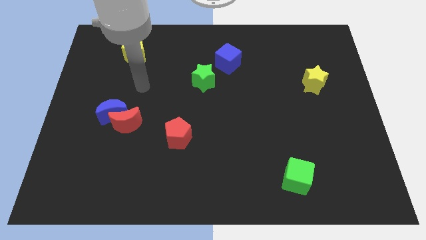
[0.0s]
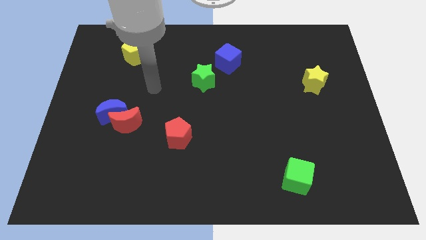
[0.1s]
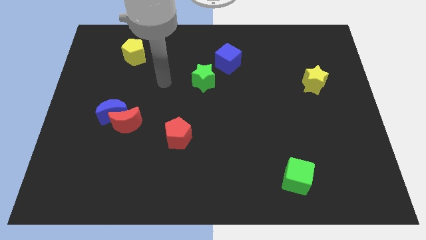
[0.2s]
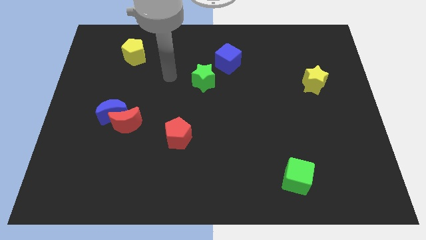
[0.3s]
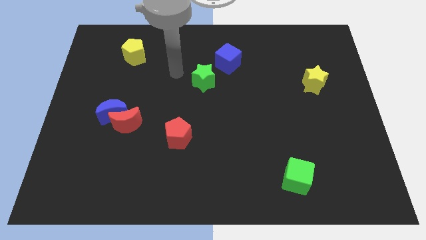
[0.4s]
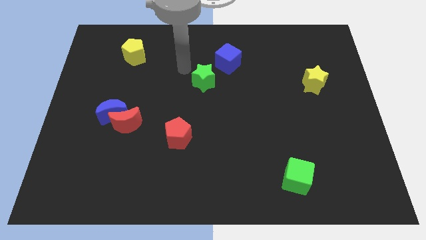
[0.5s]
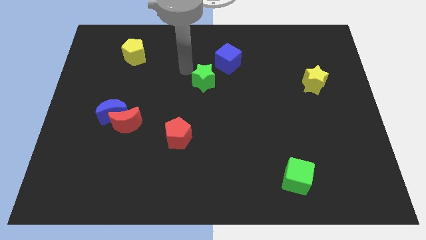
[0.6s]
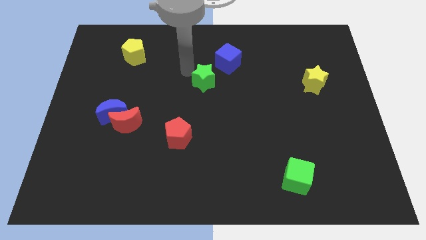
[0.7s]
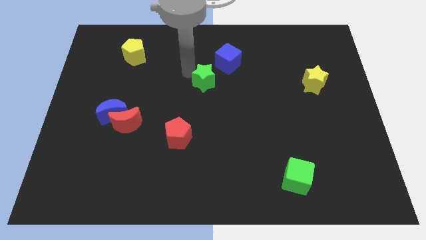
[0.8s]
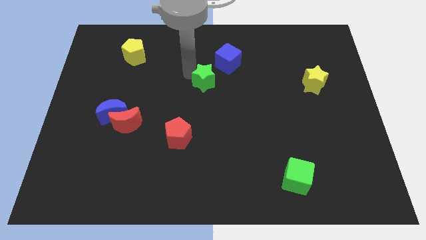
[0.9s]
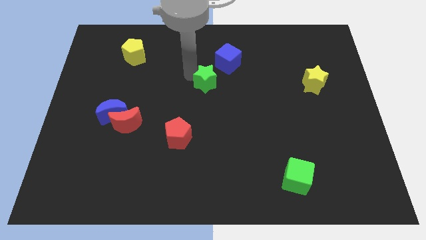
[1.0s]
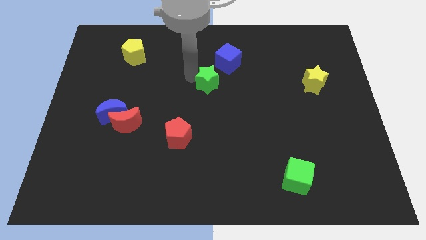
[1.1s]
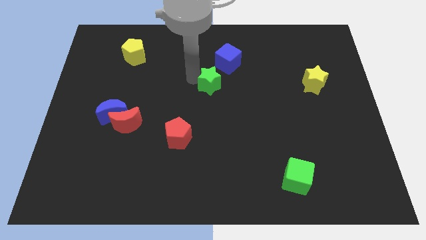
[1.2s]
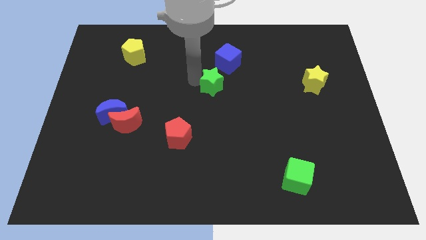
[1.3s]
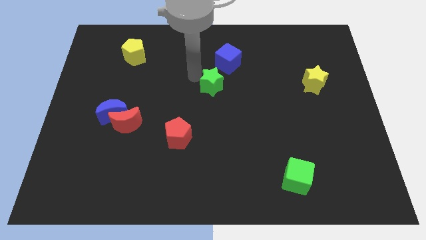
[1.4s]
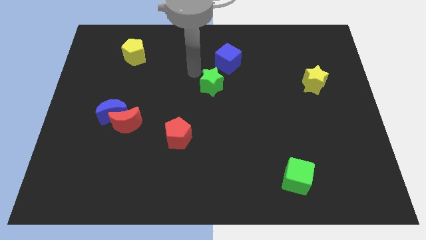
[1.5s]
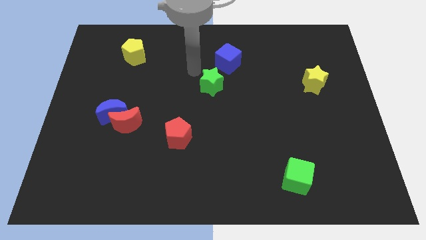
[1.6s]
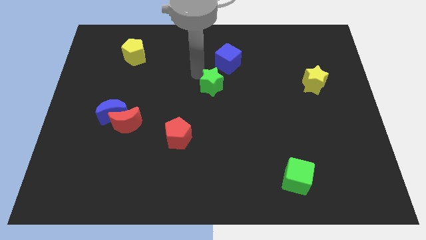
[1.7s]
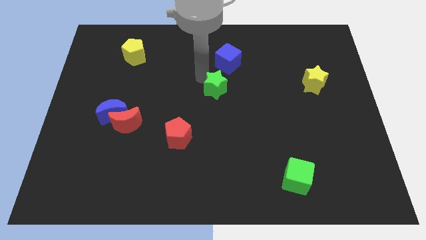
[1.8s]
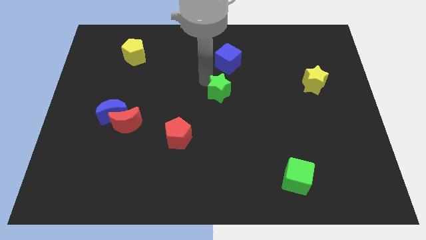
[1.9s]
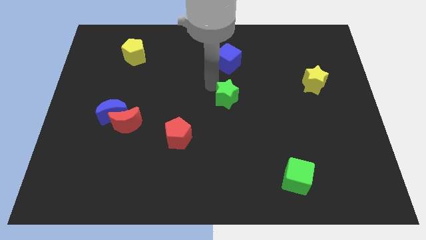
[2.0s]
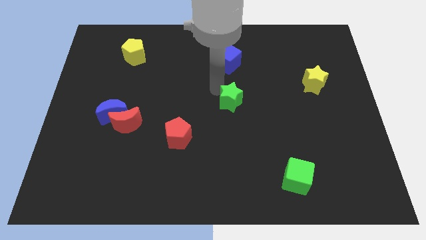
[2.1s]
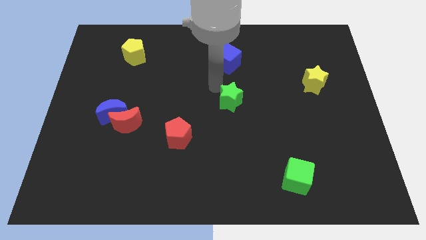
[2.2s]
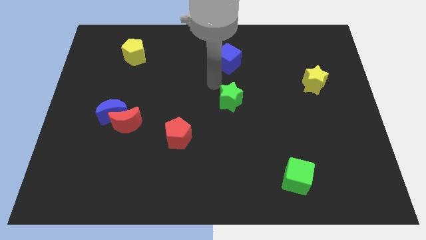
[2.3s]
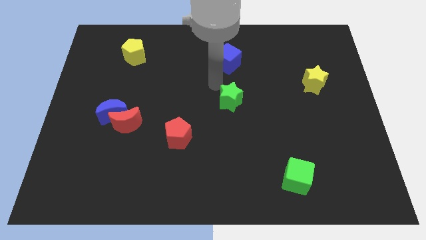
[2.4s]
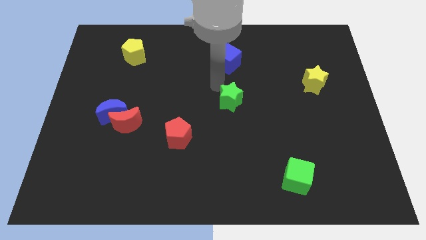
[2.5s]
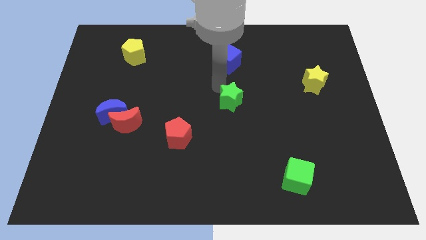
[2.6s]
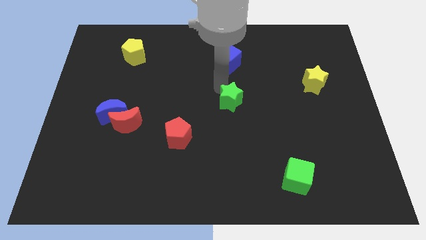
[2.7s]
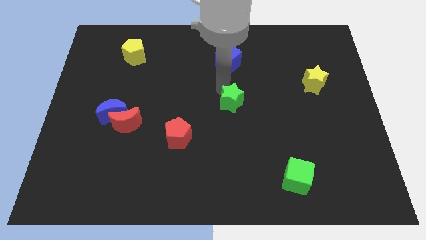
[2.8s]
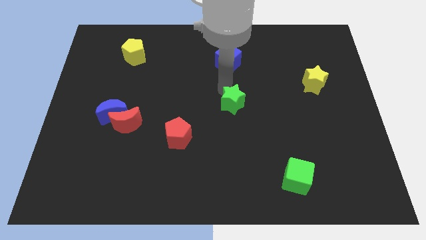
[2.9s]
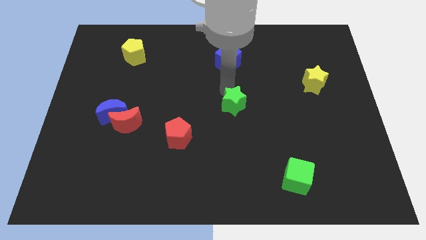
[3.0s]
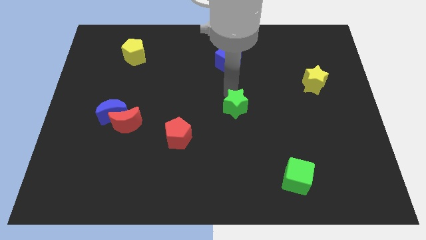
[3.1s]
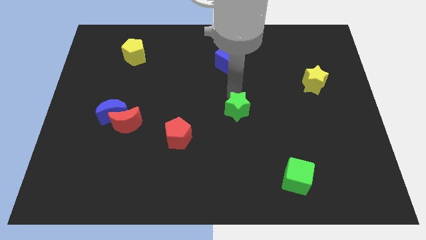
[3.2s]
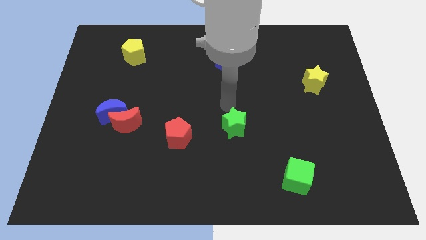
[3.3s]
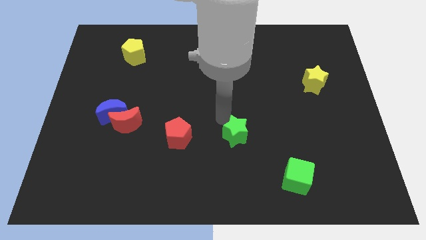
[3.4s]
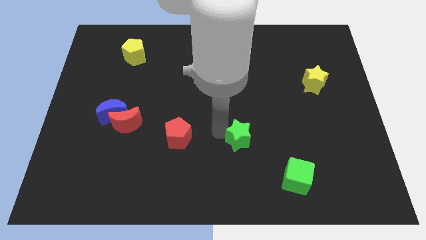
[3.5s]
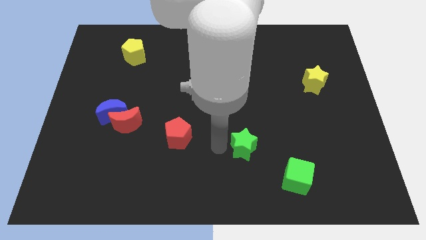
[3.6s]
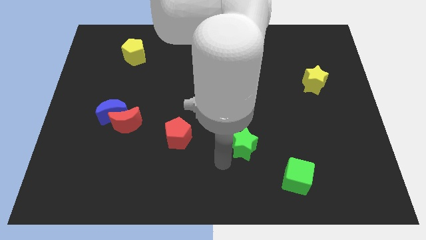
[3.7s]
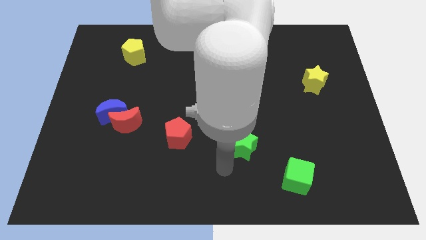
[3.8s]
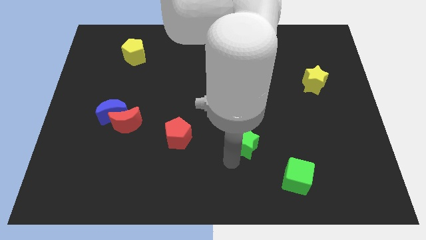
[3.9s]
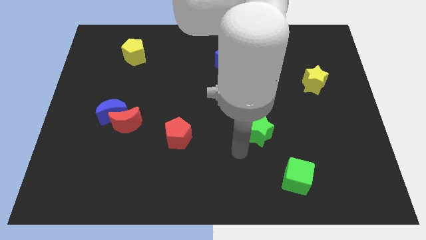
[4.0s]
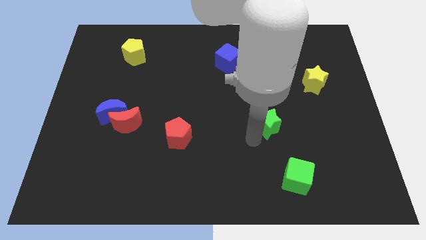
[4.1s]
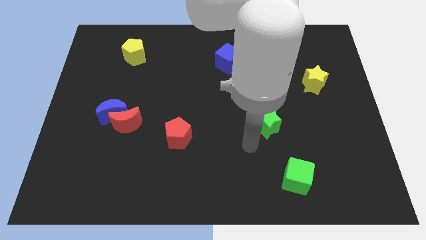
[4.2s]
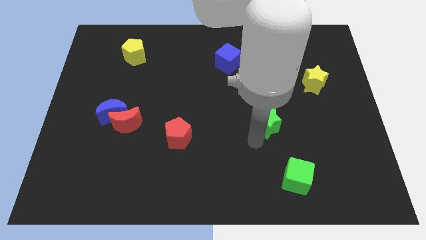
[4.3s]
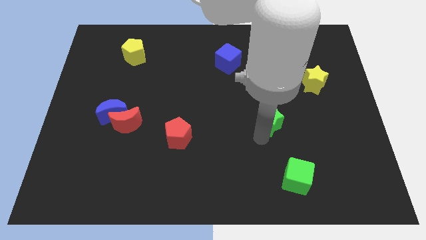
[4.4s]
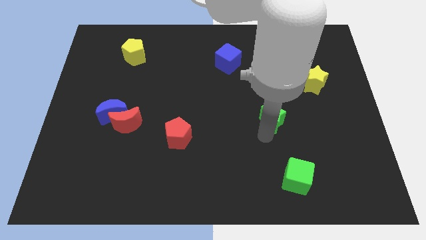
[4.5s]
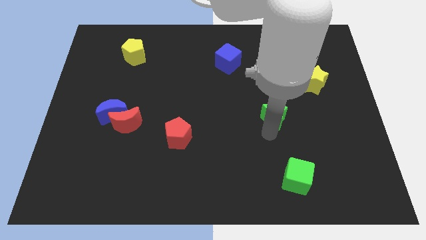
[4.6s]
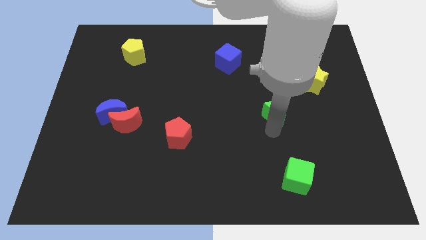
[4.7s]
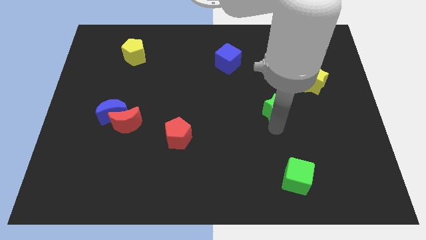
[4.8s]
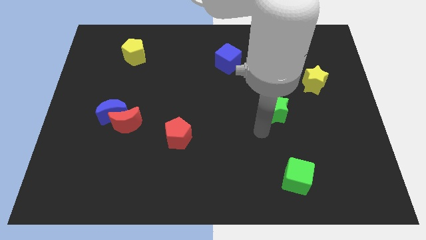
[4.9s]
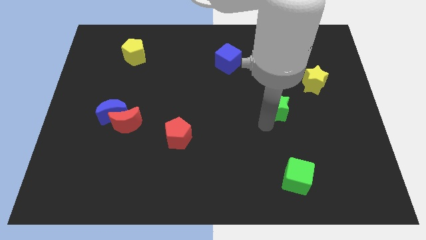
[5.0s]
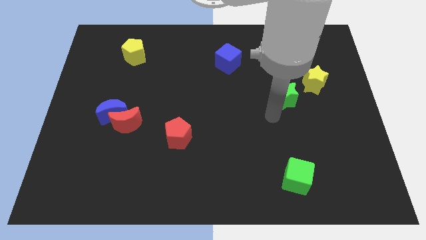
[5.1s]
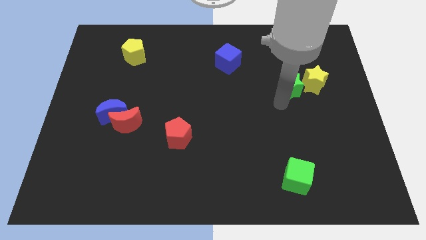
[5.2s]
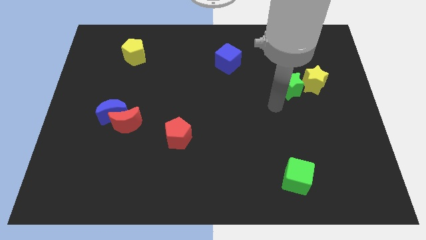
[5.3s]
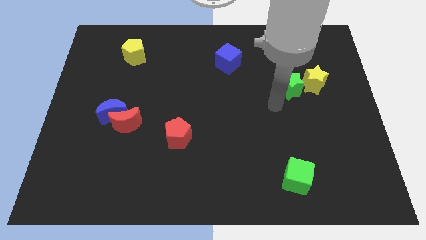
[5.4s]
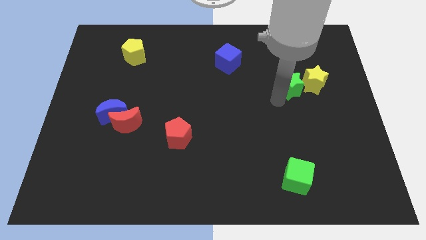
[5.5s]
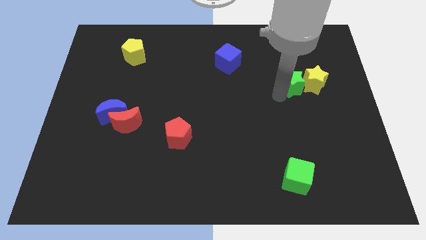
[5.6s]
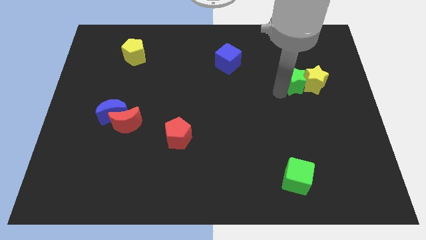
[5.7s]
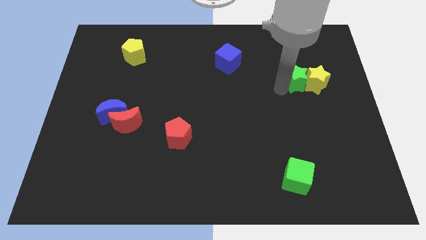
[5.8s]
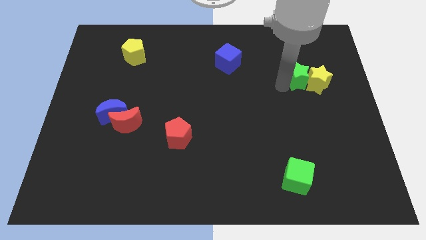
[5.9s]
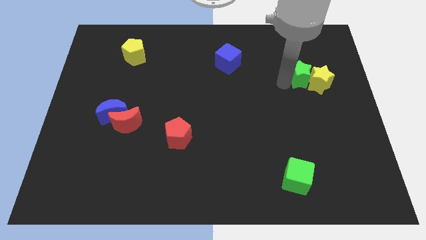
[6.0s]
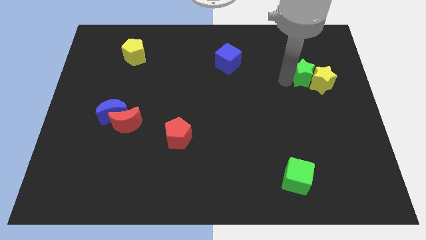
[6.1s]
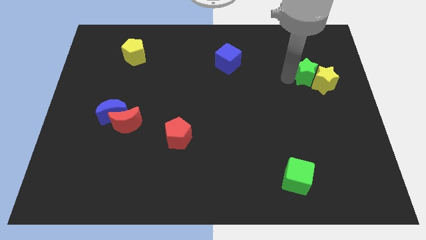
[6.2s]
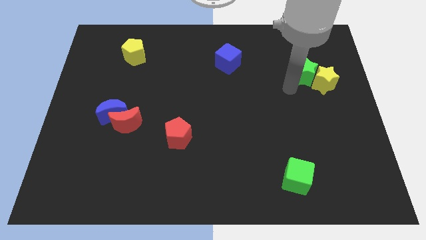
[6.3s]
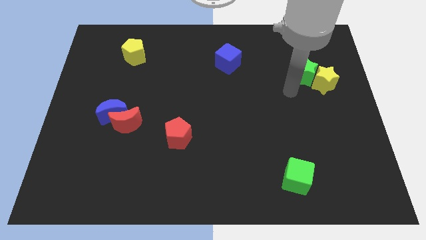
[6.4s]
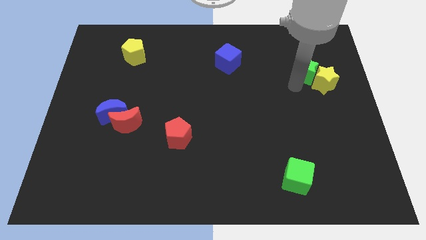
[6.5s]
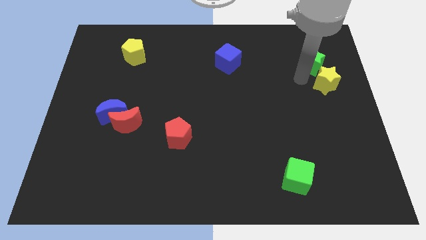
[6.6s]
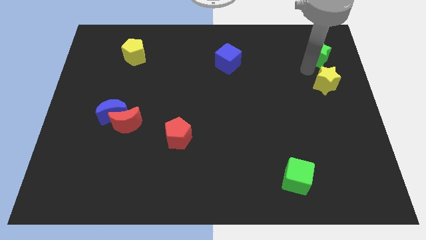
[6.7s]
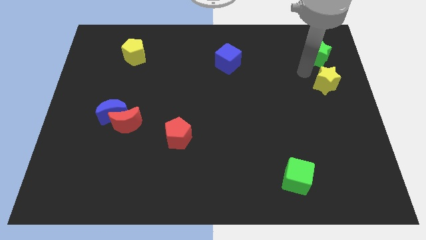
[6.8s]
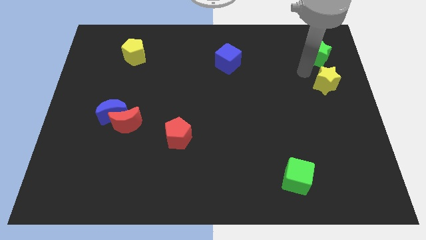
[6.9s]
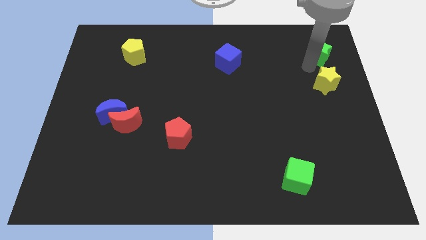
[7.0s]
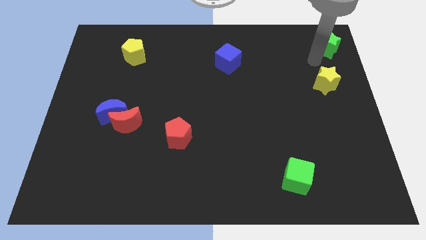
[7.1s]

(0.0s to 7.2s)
slide the green star to the top right of the board
